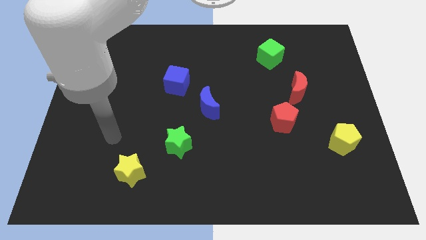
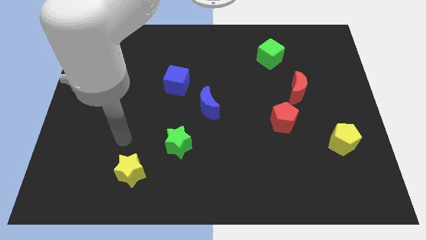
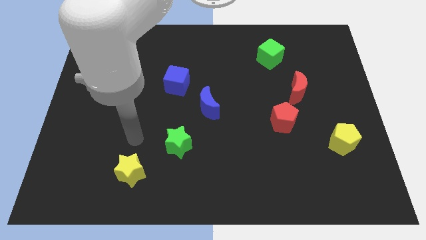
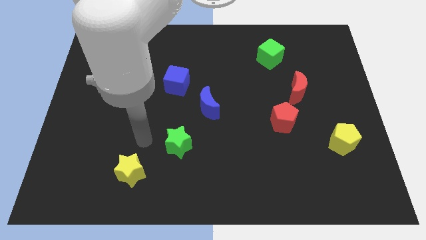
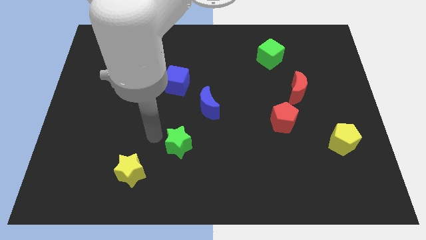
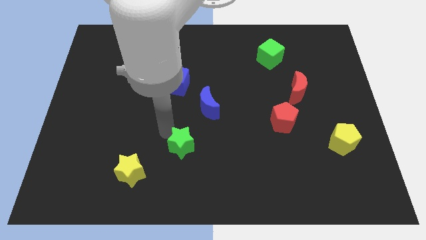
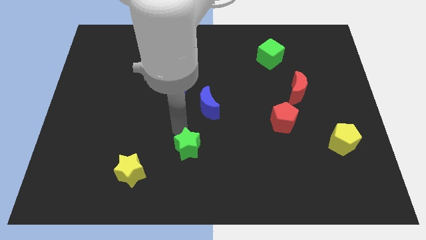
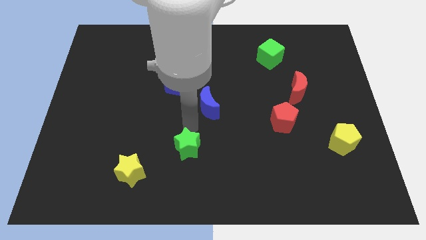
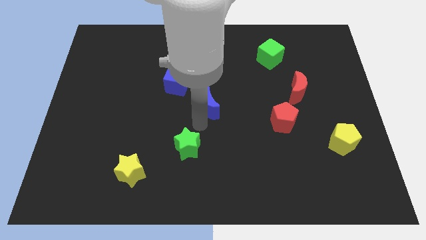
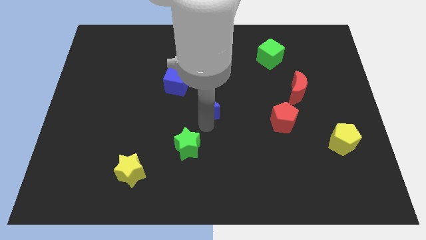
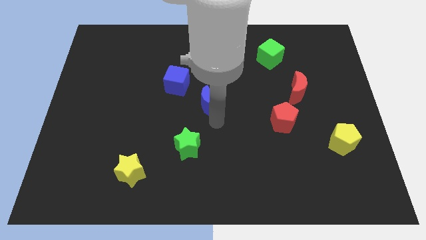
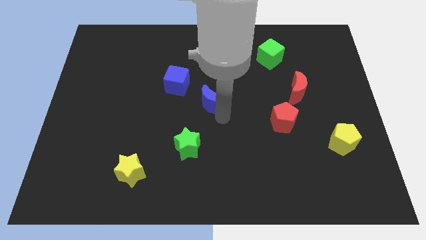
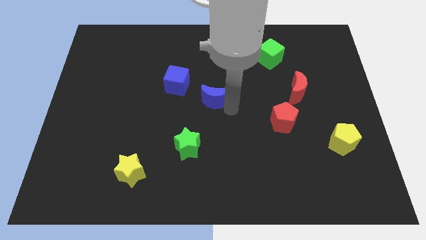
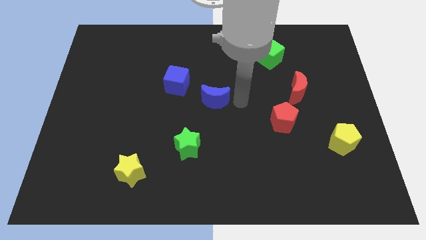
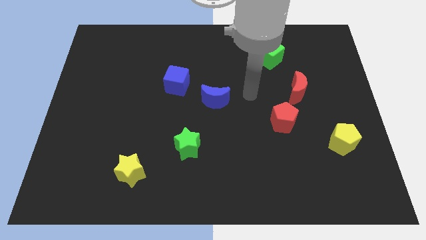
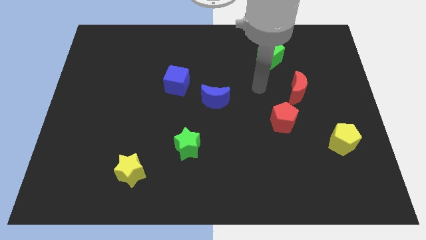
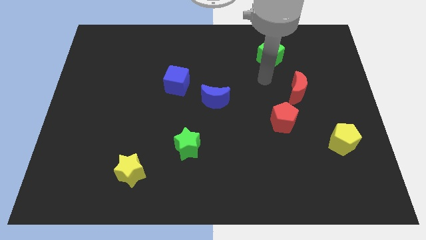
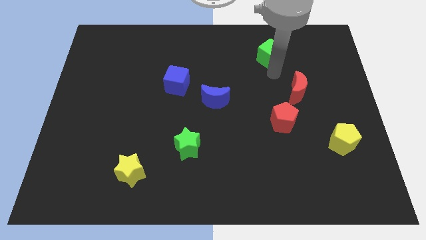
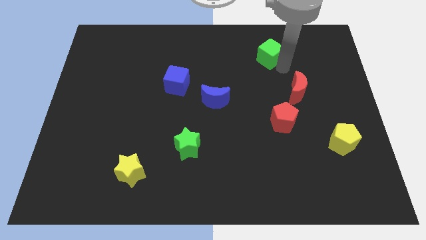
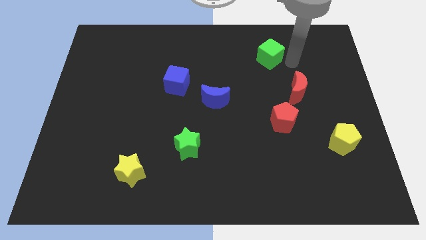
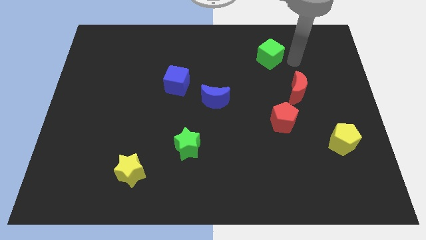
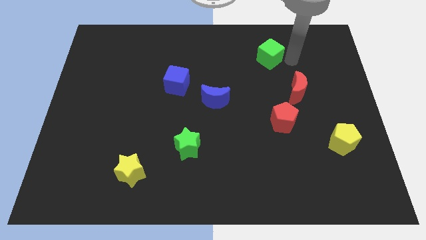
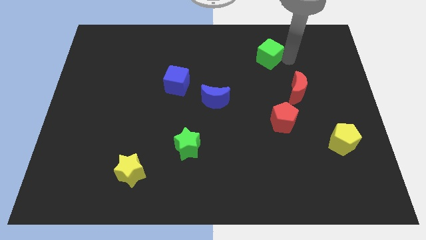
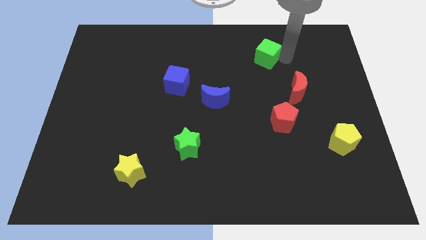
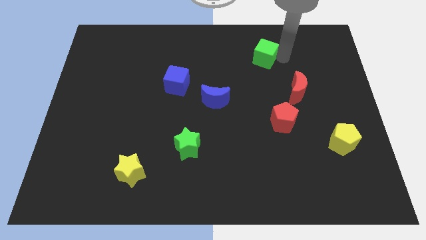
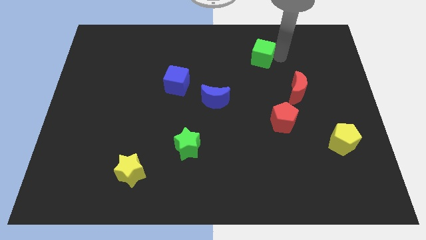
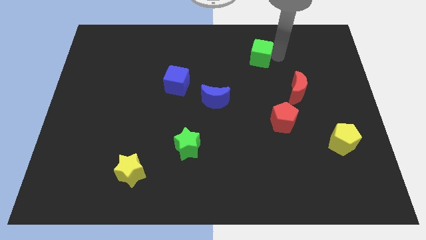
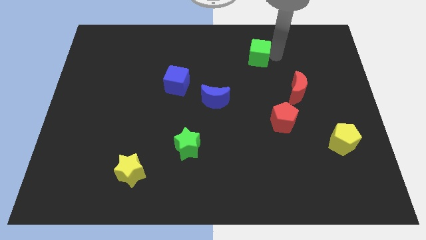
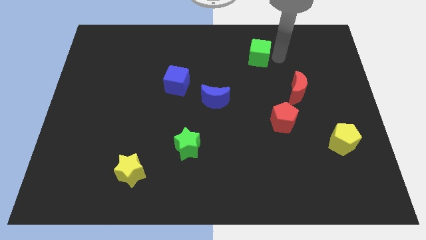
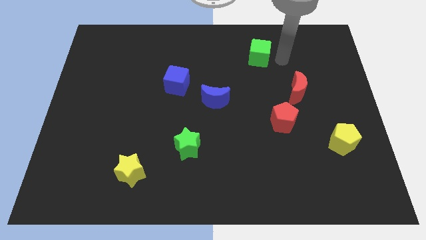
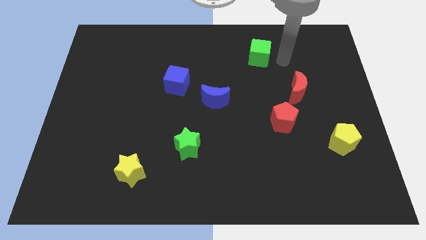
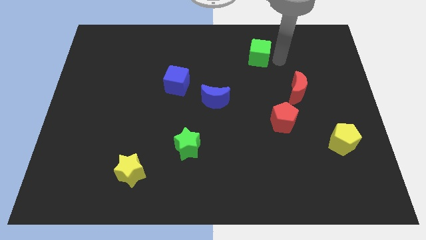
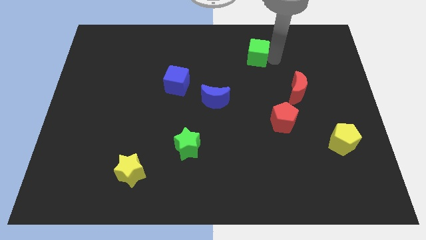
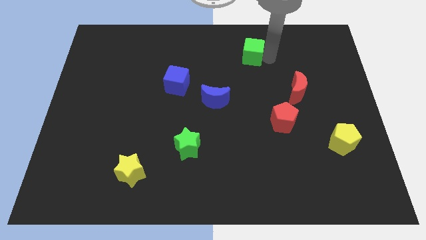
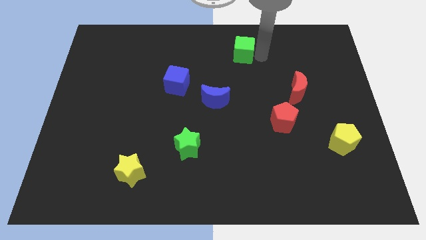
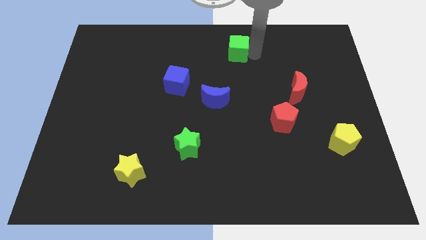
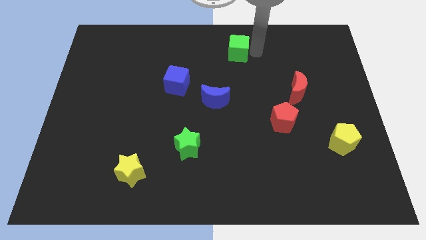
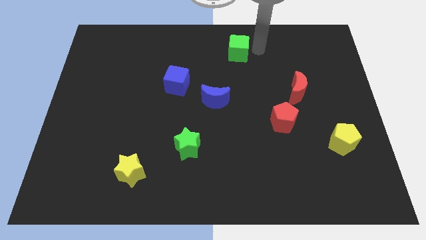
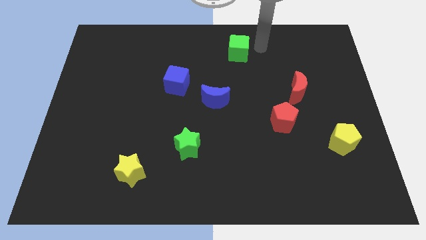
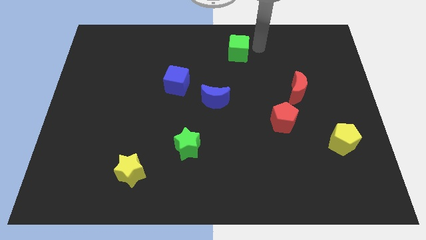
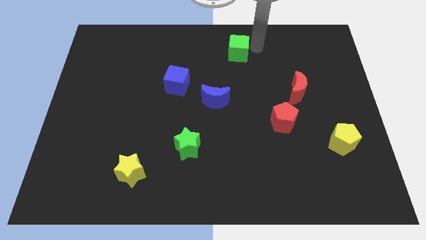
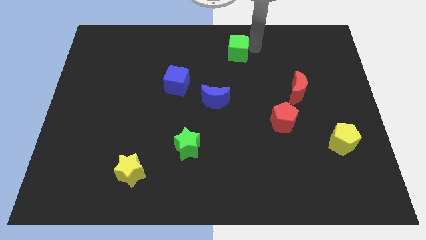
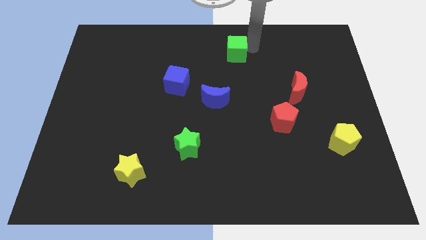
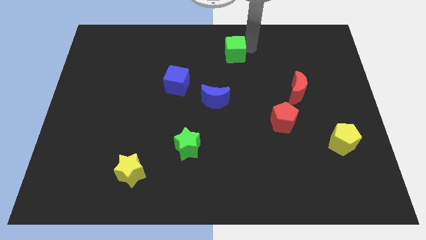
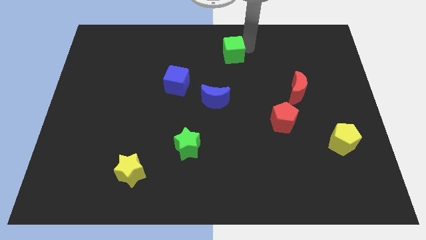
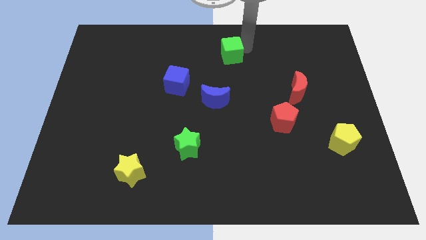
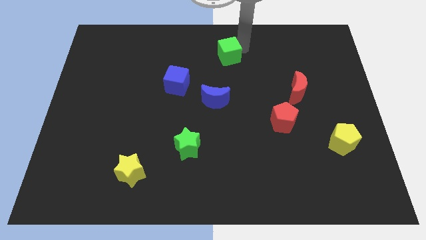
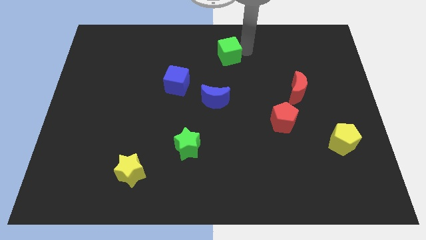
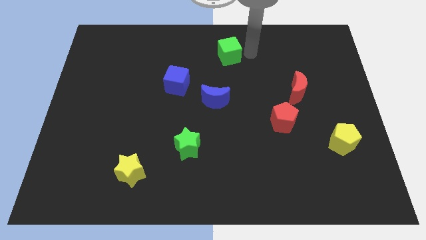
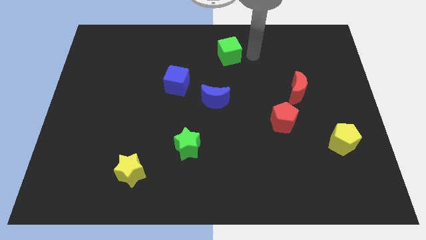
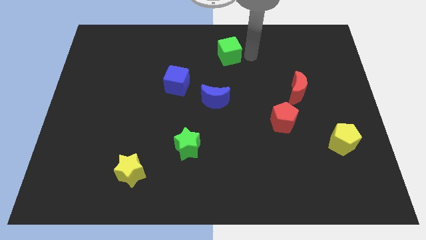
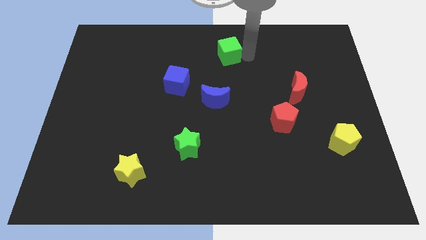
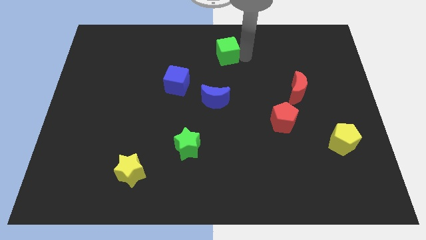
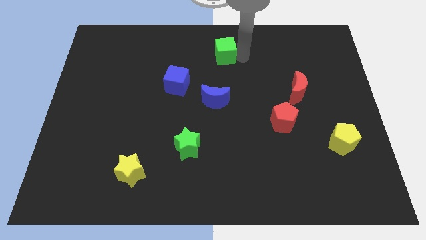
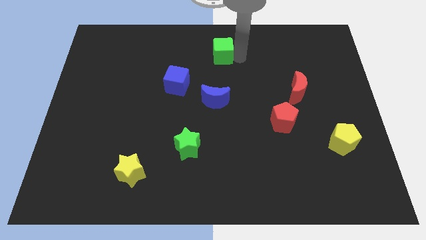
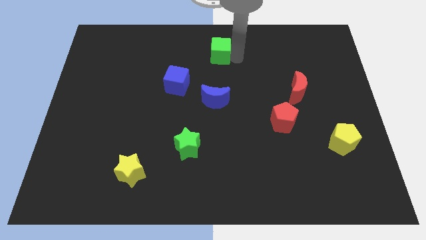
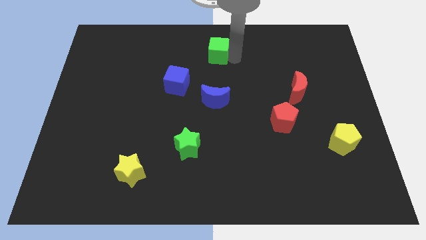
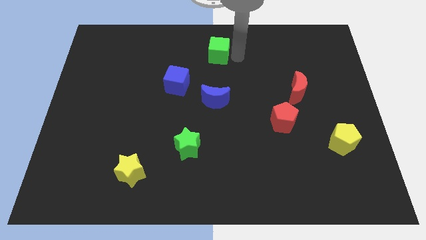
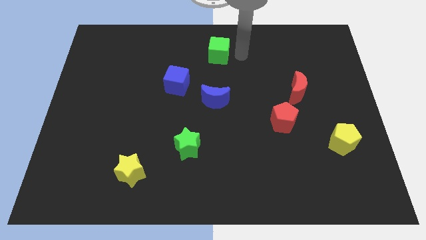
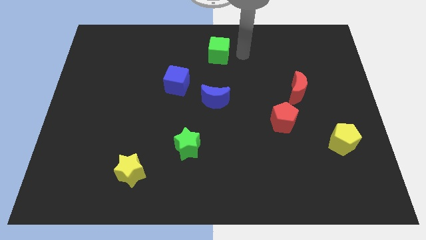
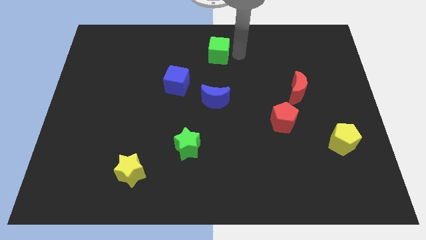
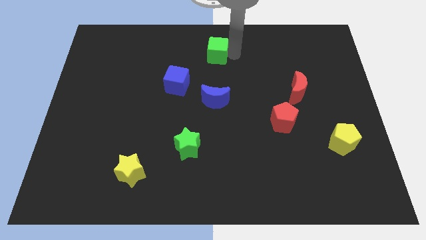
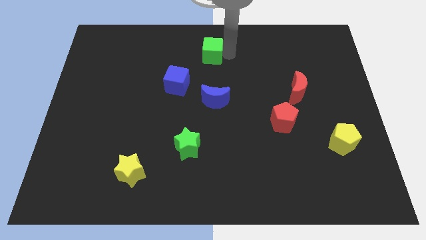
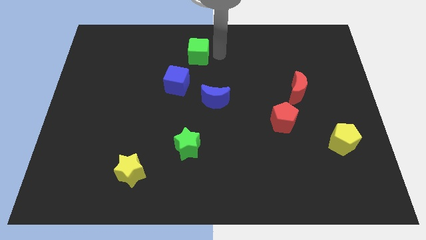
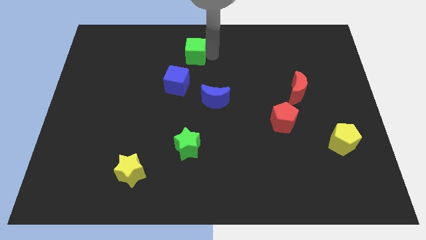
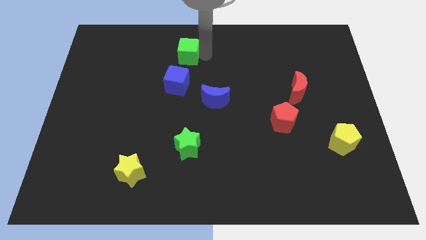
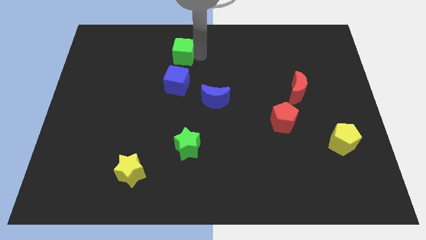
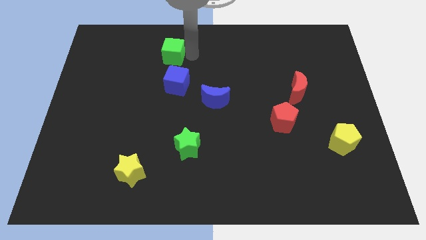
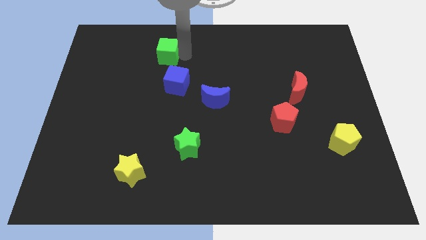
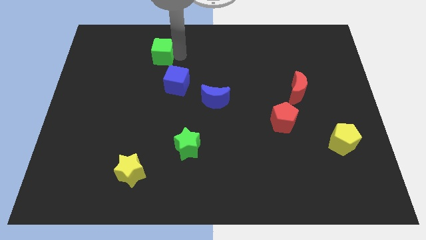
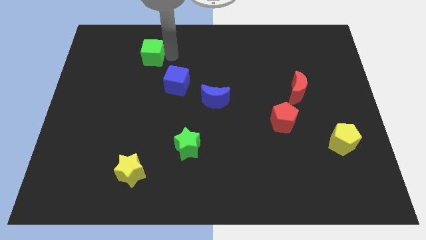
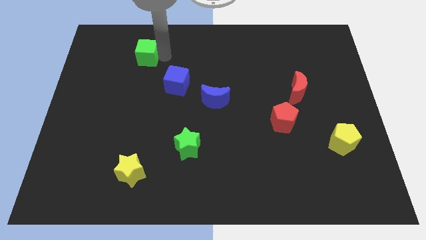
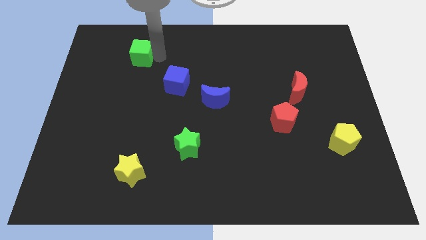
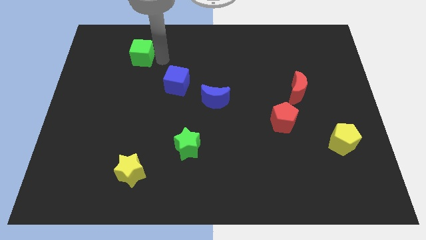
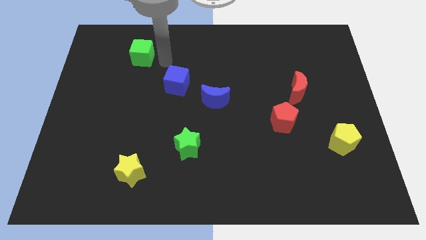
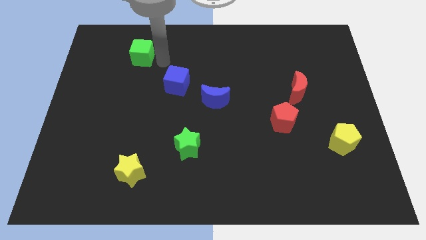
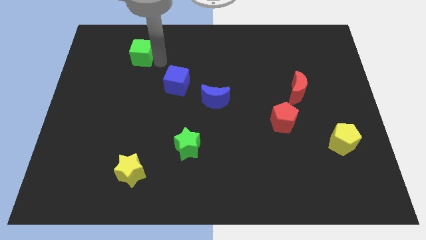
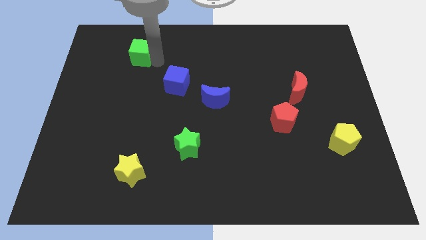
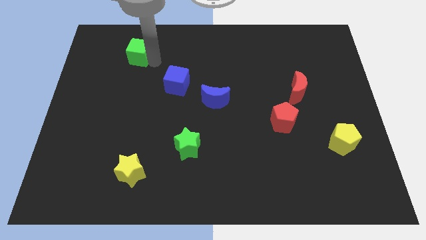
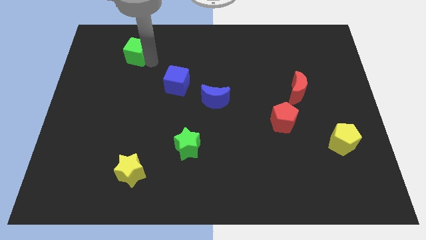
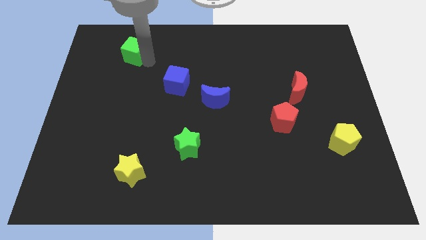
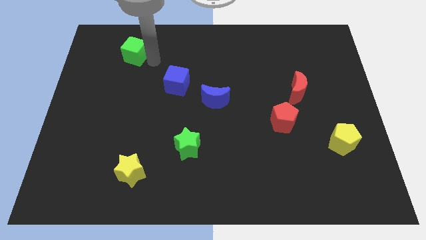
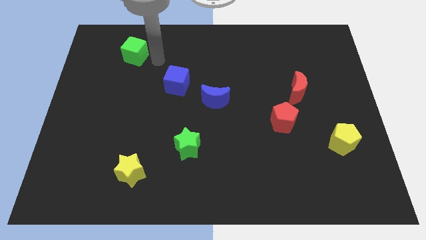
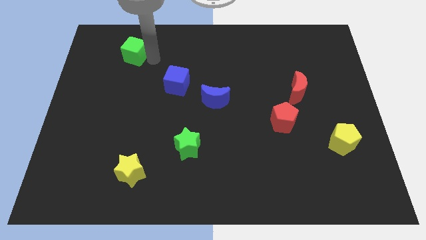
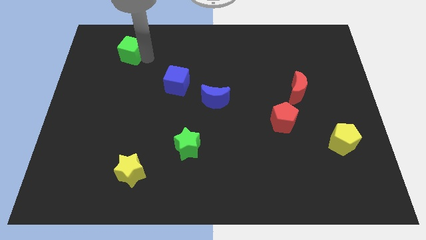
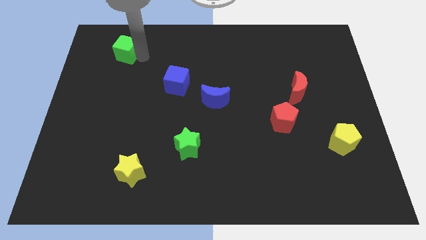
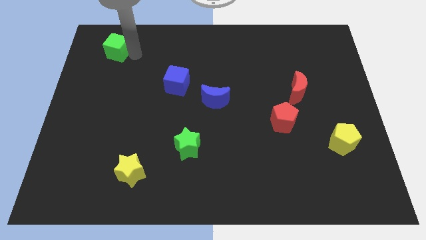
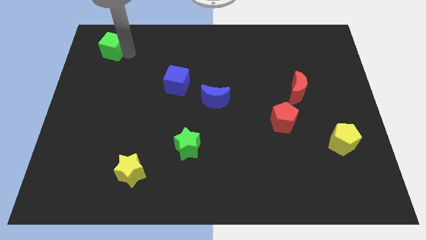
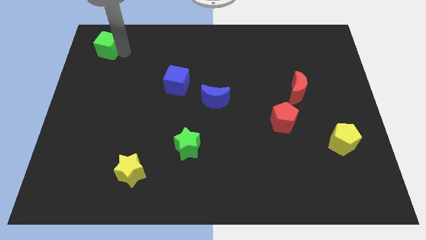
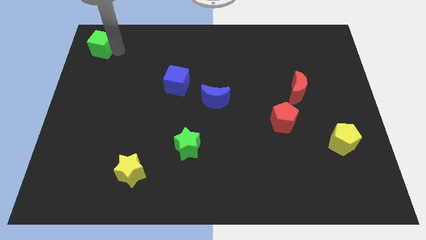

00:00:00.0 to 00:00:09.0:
move the green cube to the top left corner
